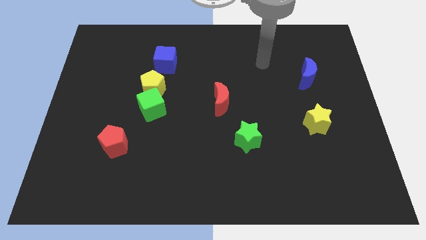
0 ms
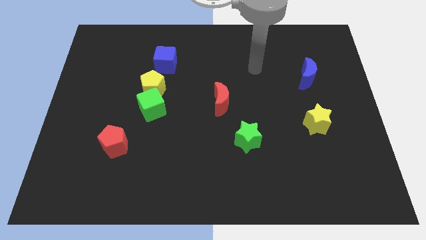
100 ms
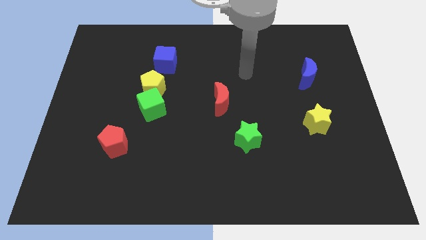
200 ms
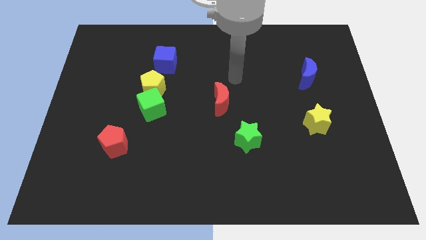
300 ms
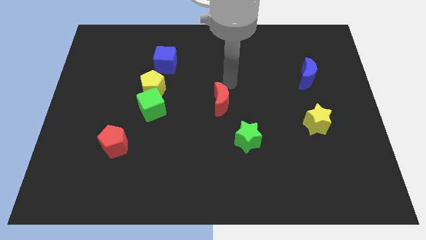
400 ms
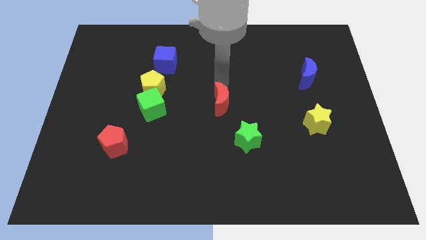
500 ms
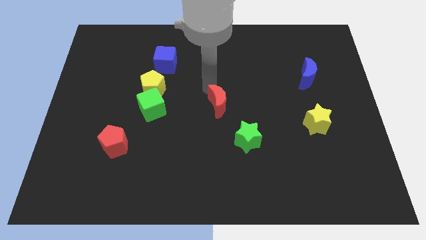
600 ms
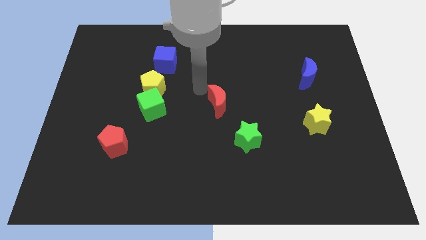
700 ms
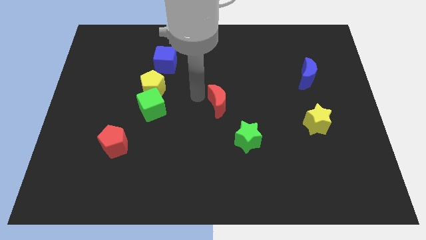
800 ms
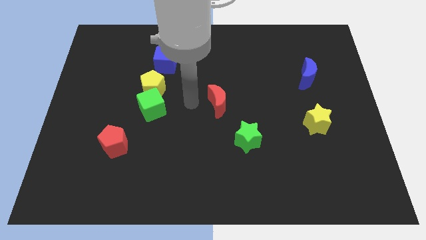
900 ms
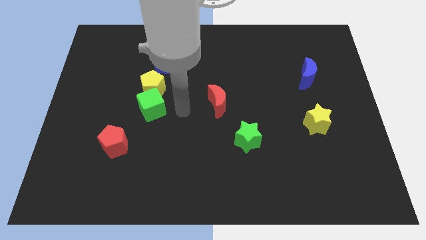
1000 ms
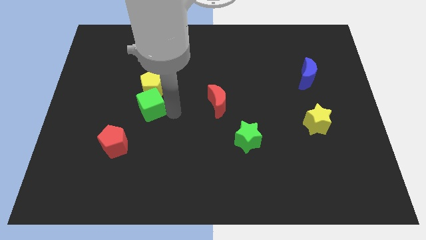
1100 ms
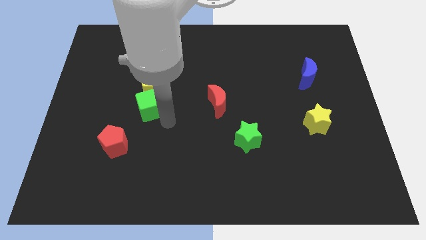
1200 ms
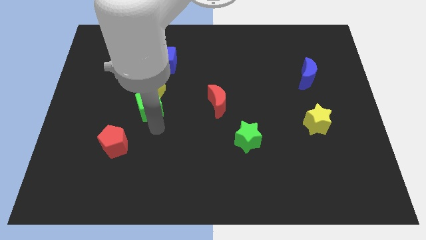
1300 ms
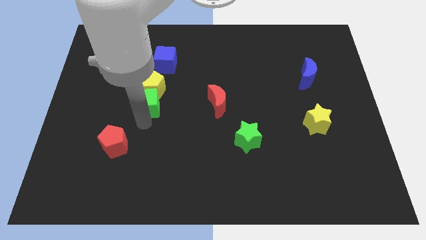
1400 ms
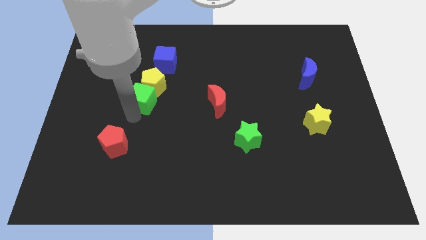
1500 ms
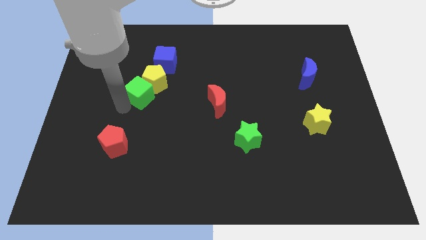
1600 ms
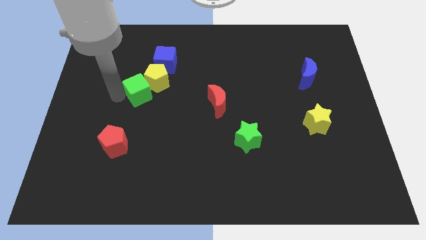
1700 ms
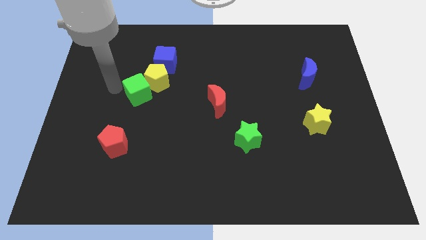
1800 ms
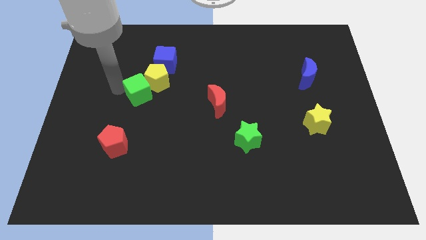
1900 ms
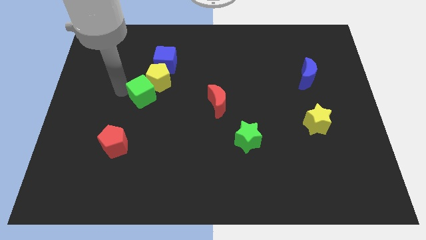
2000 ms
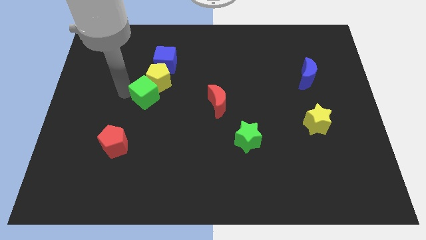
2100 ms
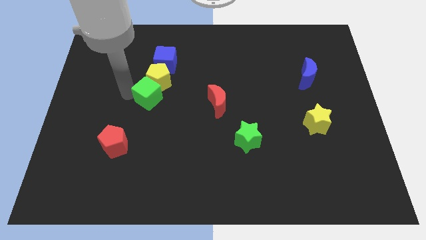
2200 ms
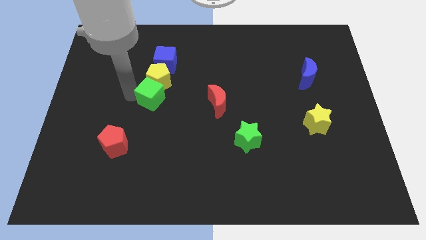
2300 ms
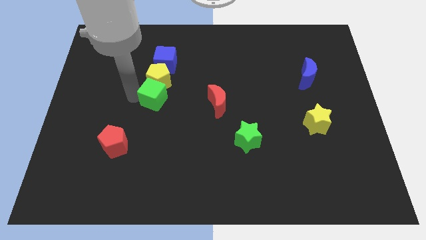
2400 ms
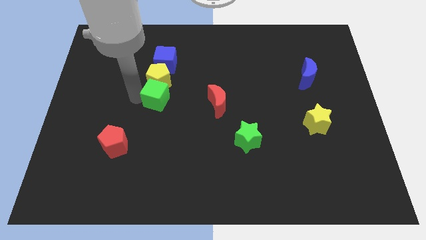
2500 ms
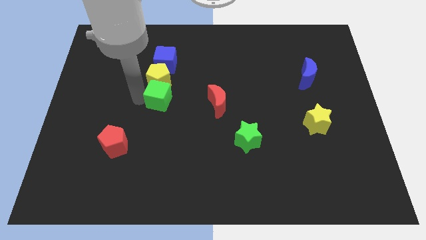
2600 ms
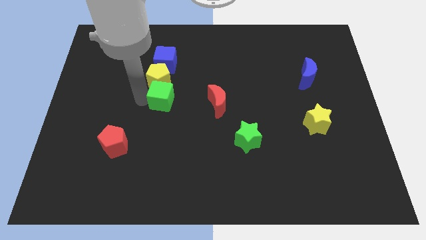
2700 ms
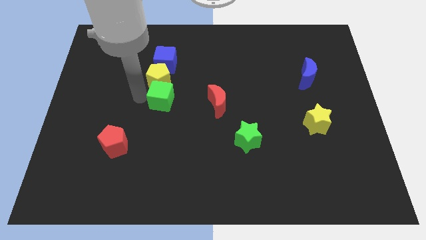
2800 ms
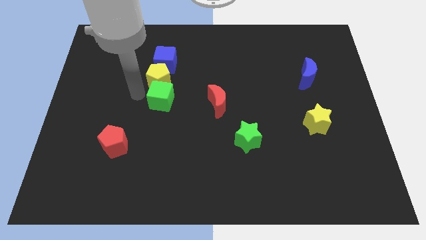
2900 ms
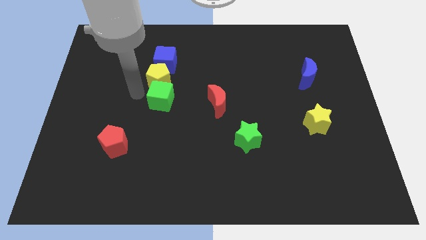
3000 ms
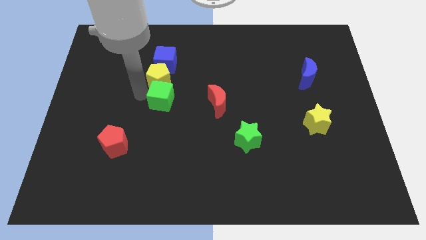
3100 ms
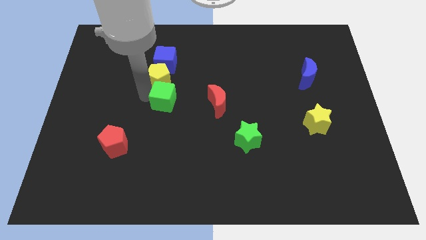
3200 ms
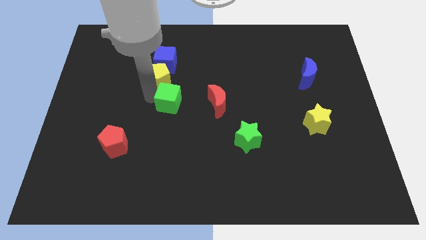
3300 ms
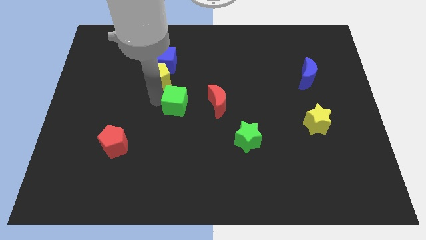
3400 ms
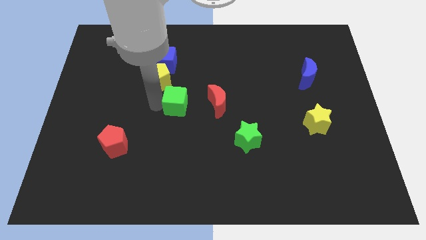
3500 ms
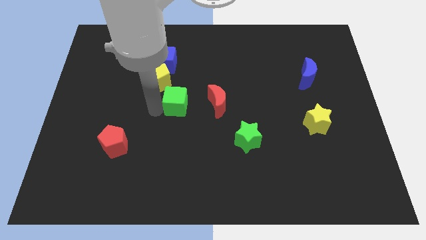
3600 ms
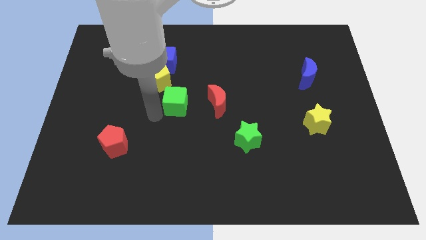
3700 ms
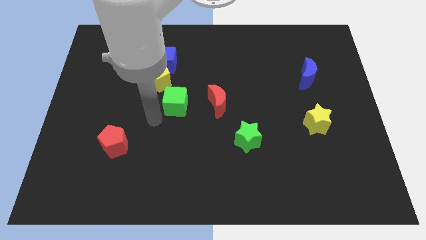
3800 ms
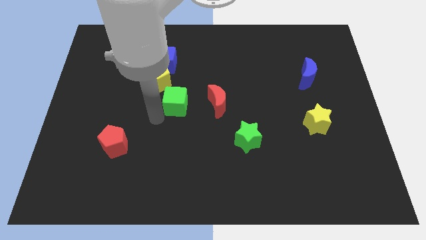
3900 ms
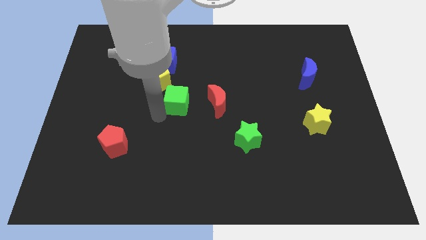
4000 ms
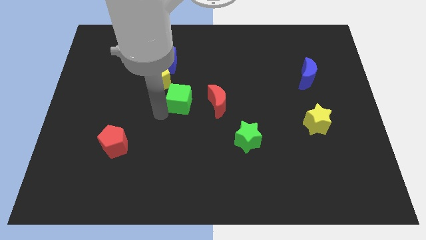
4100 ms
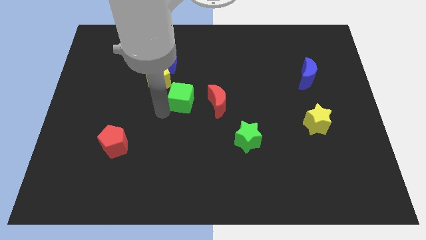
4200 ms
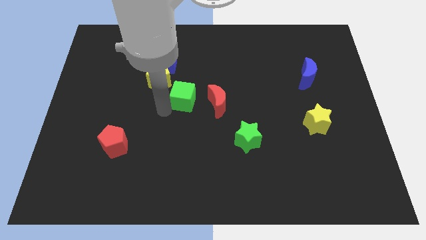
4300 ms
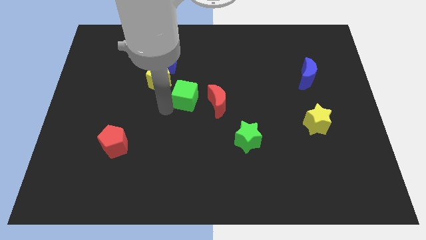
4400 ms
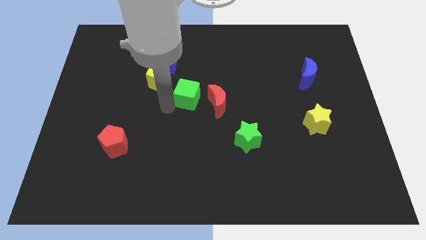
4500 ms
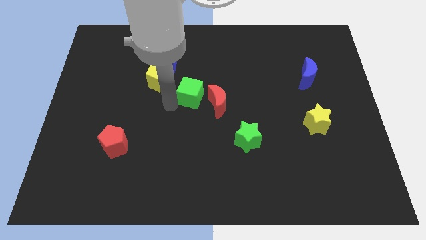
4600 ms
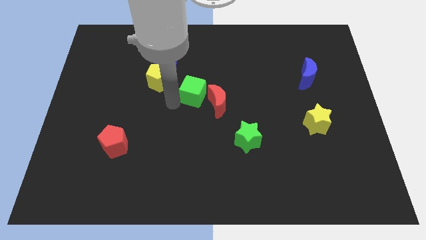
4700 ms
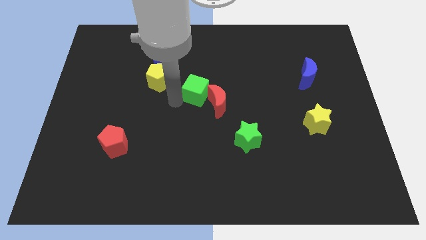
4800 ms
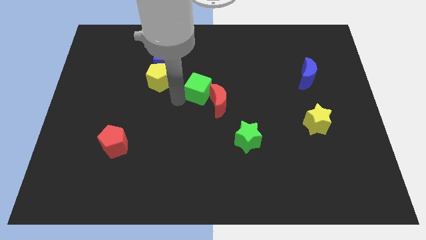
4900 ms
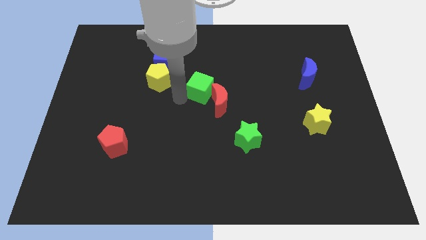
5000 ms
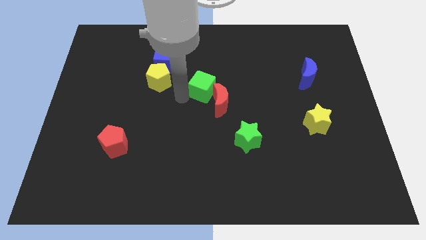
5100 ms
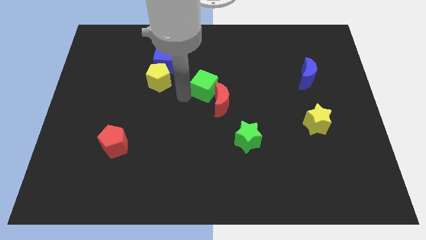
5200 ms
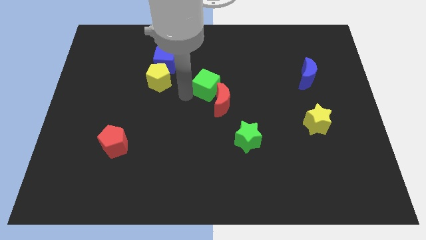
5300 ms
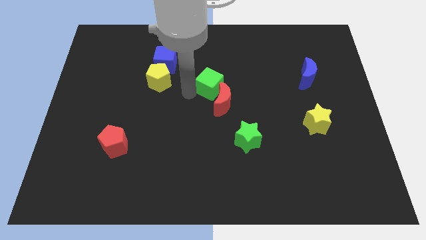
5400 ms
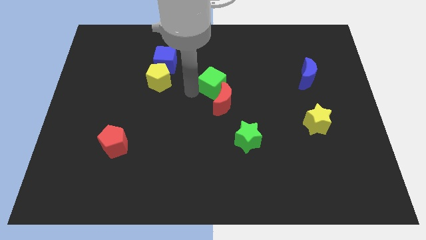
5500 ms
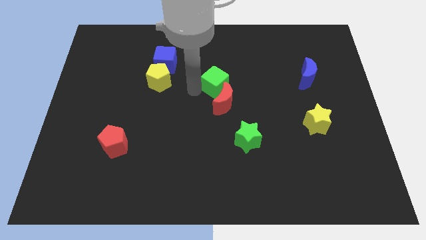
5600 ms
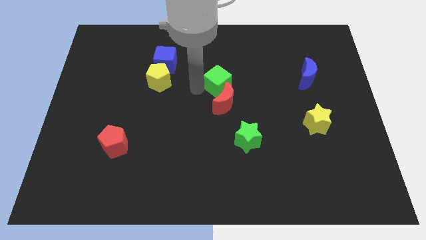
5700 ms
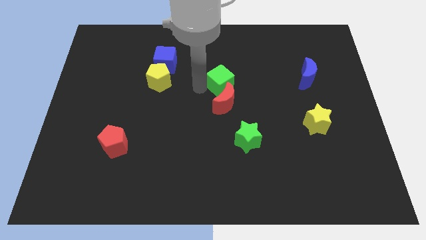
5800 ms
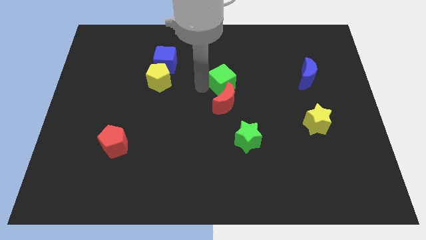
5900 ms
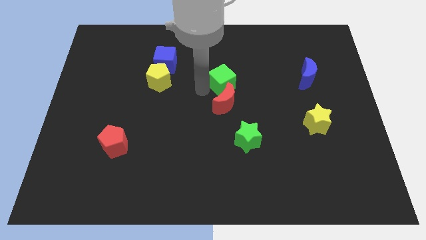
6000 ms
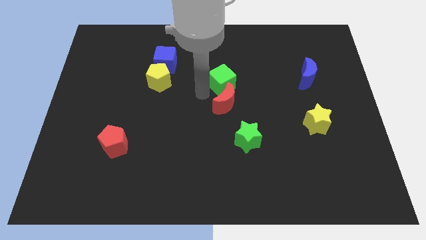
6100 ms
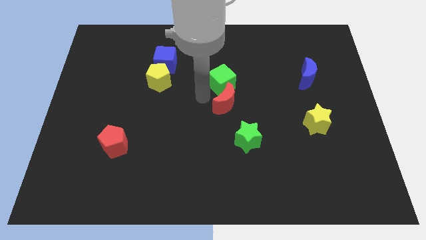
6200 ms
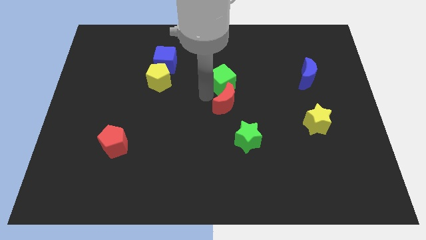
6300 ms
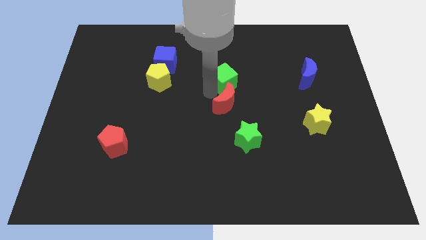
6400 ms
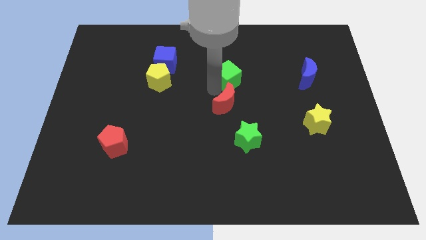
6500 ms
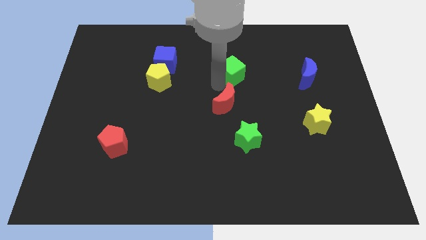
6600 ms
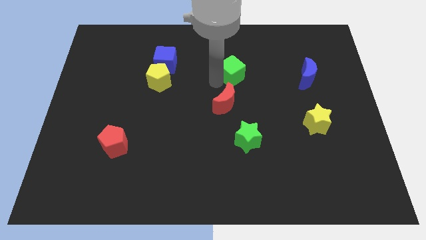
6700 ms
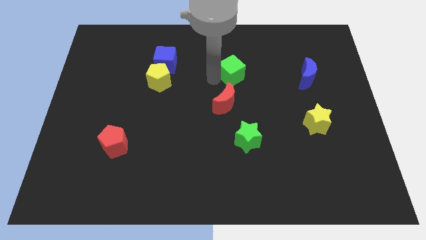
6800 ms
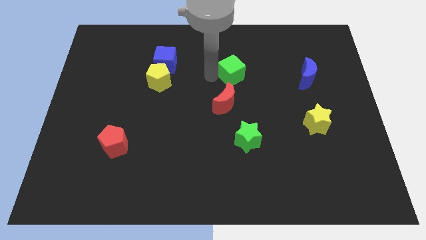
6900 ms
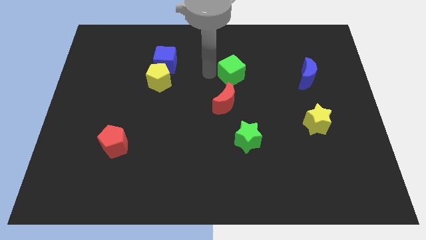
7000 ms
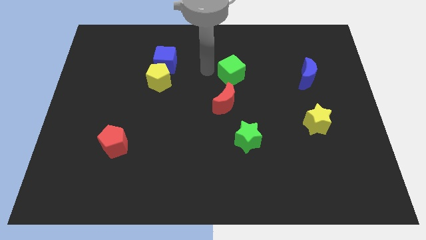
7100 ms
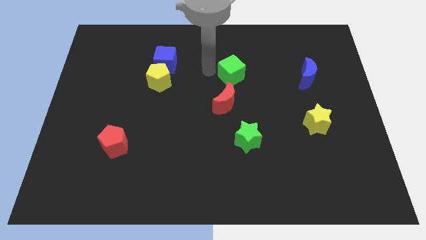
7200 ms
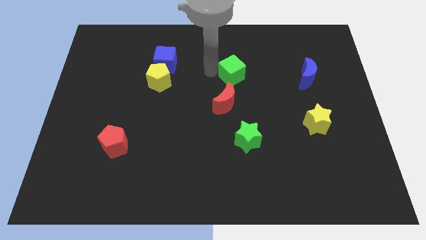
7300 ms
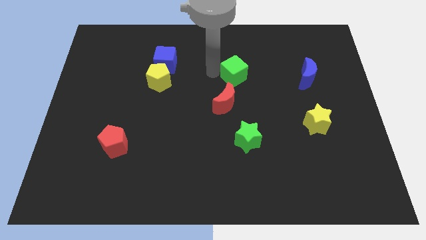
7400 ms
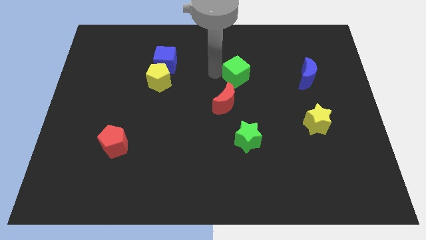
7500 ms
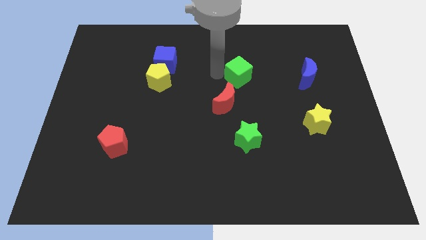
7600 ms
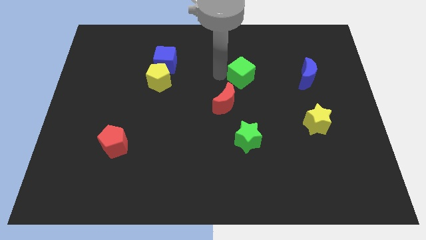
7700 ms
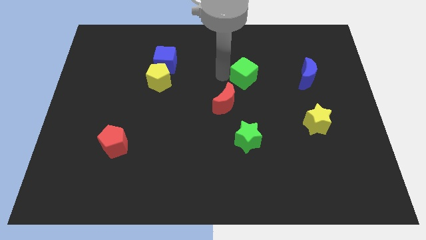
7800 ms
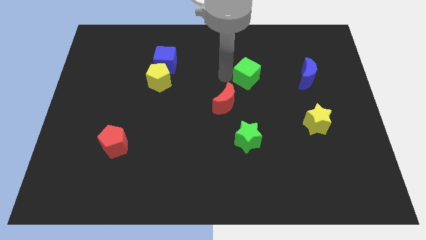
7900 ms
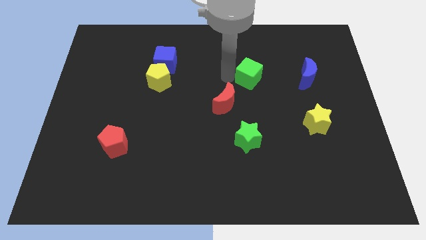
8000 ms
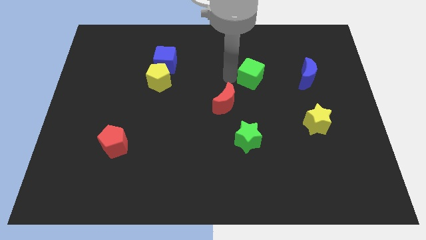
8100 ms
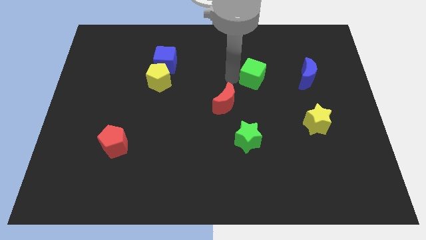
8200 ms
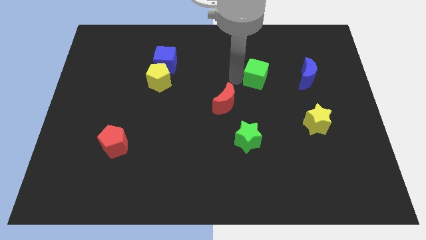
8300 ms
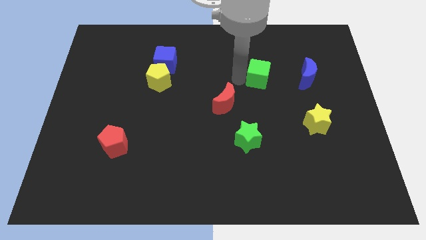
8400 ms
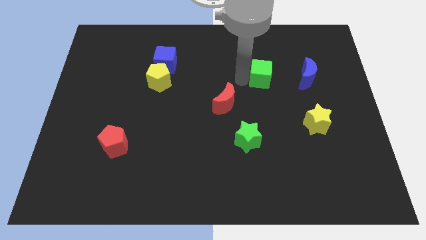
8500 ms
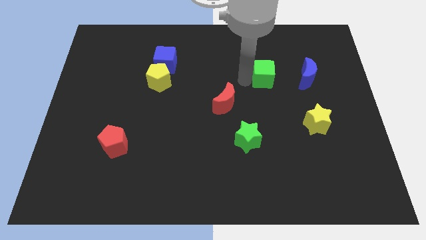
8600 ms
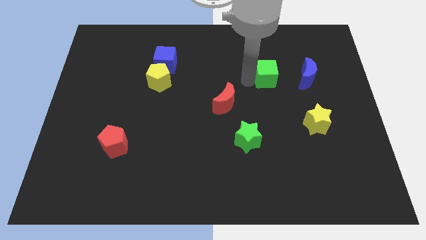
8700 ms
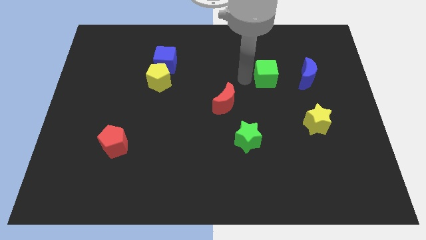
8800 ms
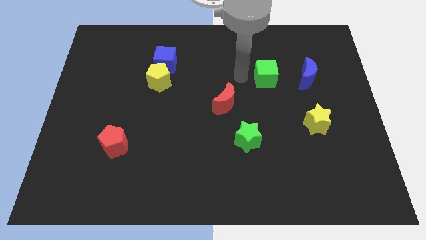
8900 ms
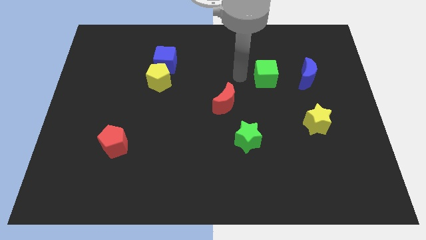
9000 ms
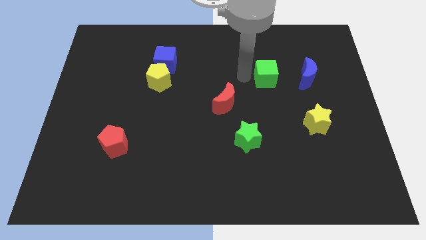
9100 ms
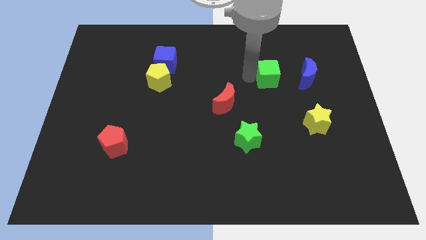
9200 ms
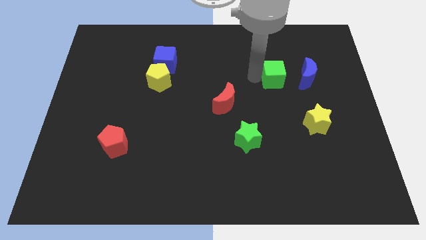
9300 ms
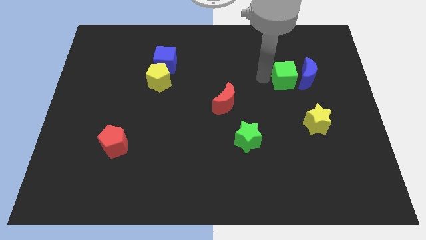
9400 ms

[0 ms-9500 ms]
slide the green cube towards the blue moon
